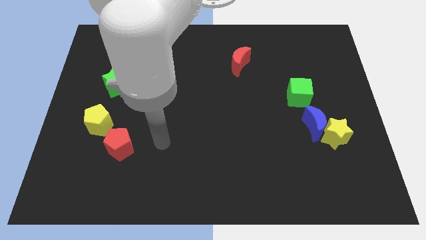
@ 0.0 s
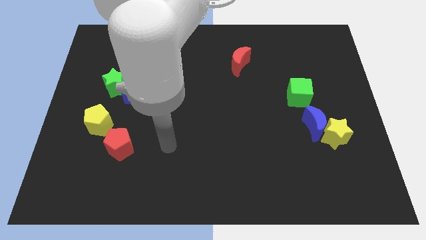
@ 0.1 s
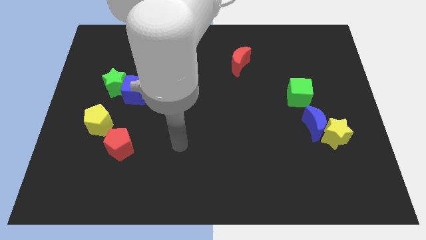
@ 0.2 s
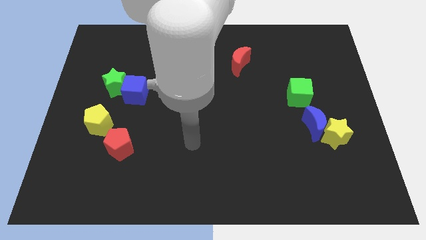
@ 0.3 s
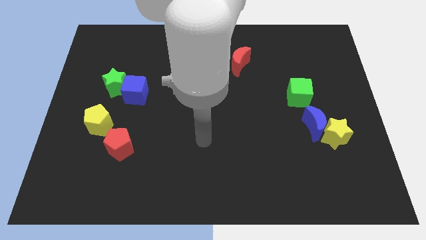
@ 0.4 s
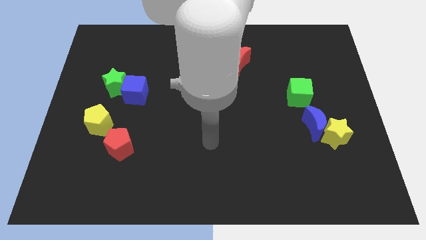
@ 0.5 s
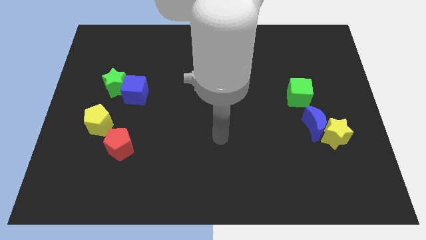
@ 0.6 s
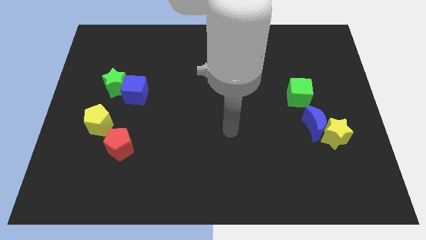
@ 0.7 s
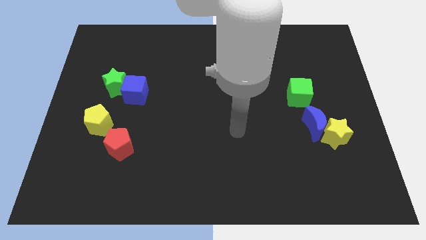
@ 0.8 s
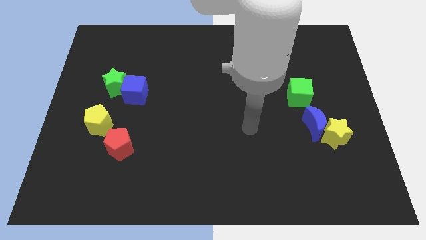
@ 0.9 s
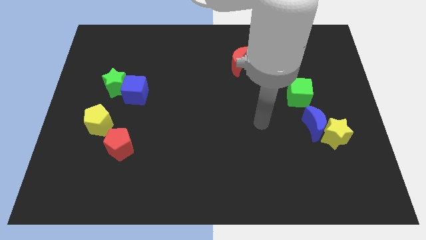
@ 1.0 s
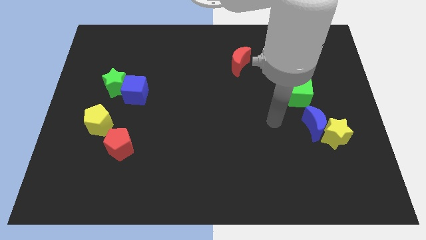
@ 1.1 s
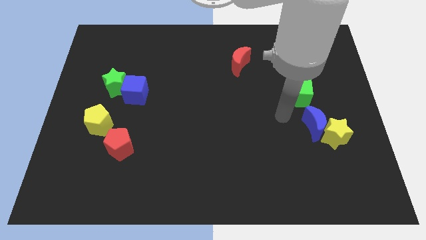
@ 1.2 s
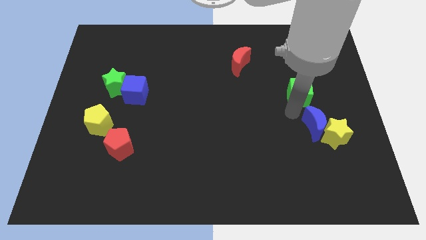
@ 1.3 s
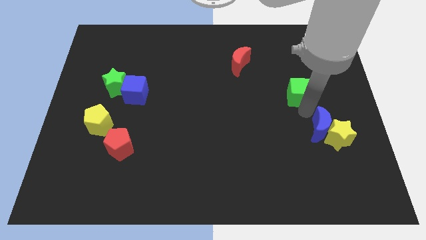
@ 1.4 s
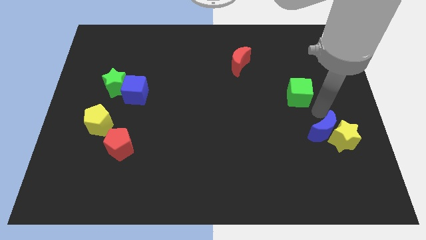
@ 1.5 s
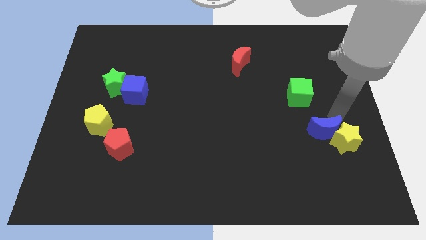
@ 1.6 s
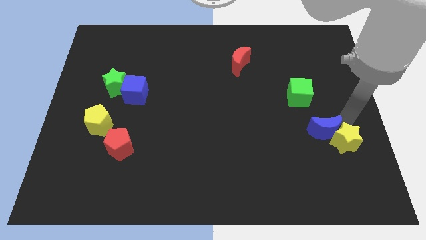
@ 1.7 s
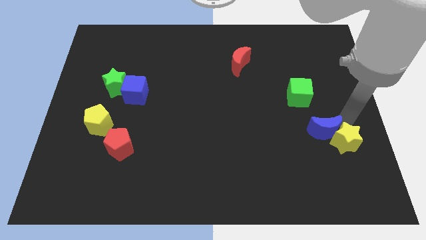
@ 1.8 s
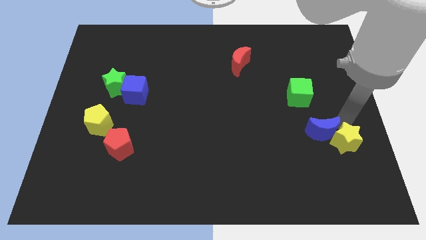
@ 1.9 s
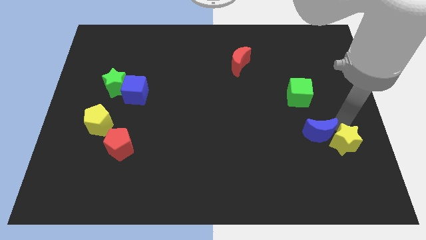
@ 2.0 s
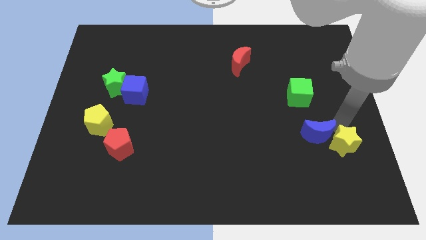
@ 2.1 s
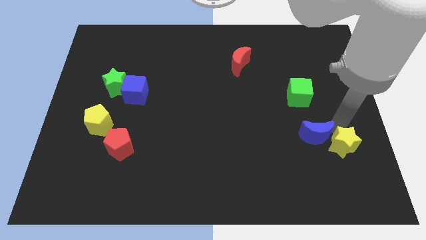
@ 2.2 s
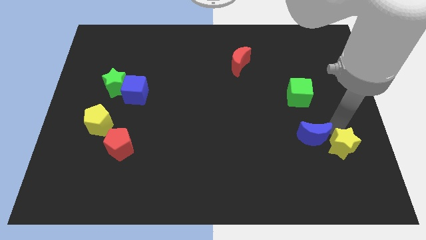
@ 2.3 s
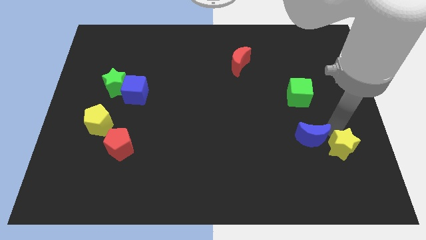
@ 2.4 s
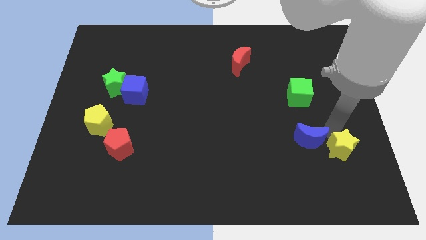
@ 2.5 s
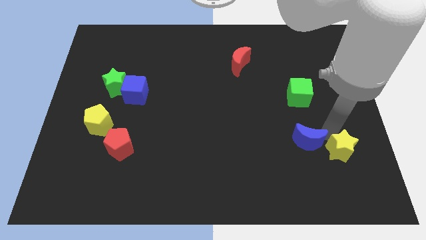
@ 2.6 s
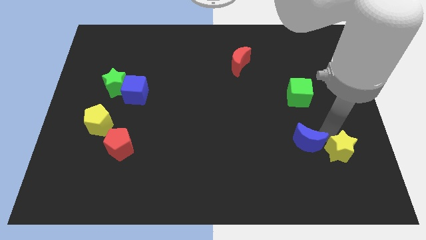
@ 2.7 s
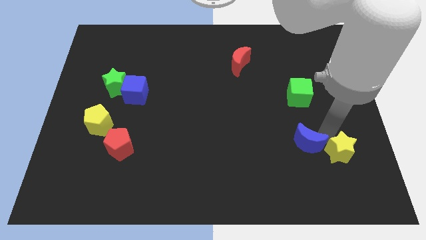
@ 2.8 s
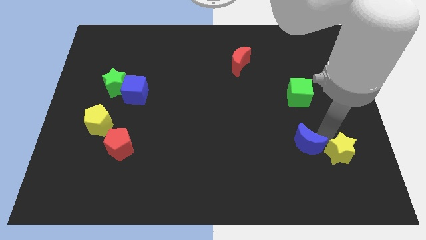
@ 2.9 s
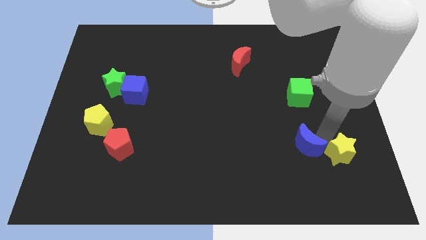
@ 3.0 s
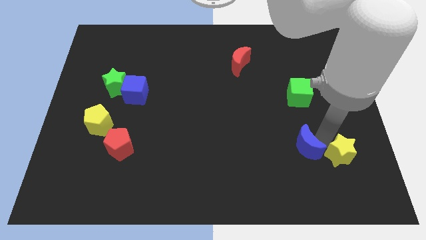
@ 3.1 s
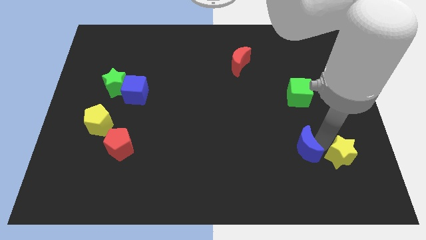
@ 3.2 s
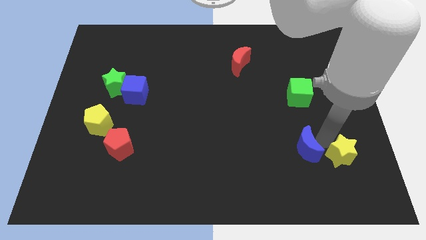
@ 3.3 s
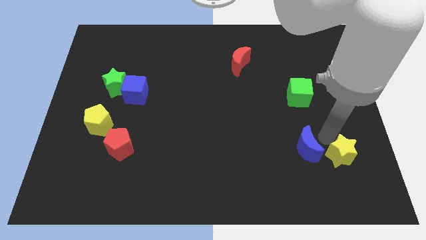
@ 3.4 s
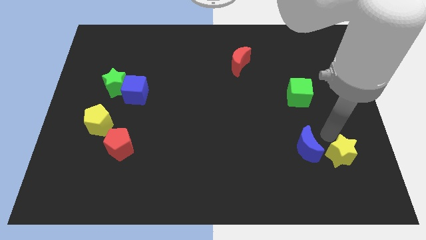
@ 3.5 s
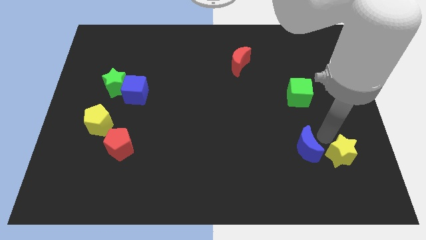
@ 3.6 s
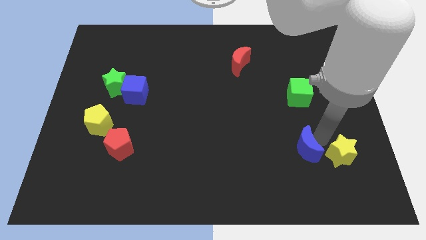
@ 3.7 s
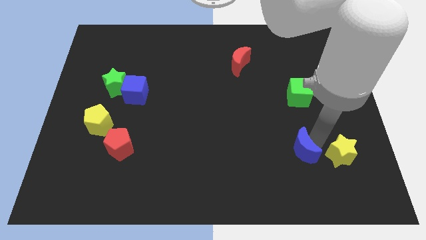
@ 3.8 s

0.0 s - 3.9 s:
slightly slide the blue moon diagonally downwards and left

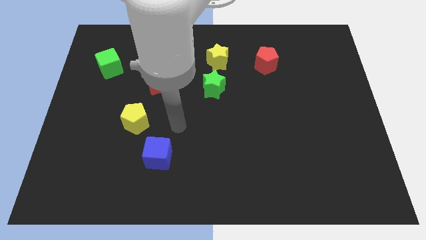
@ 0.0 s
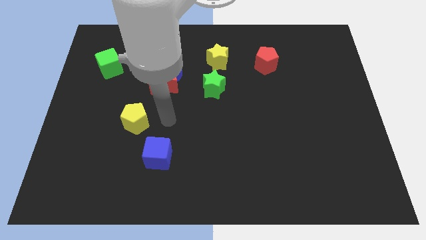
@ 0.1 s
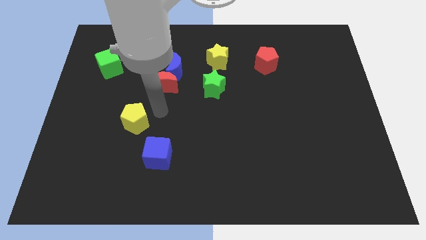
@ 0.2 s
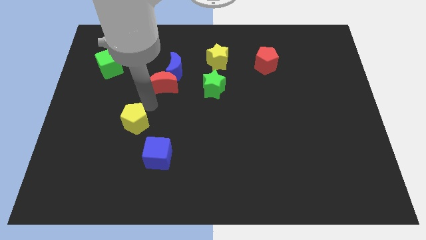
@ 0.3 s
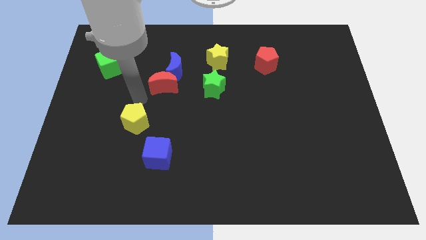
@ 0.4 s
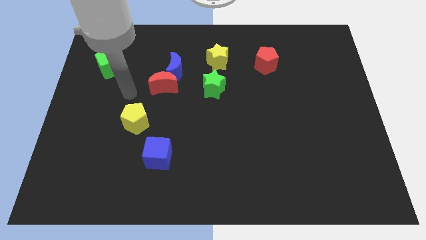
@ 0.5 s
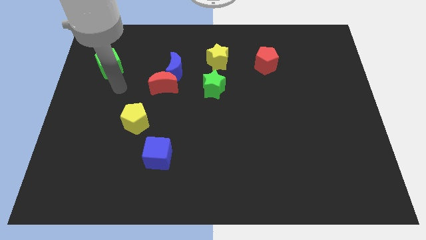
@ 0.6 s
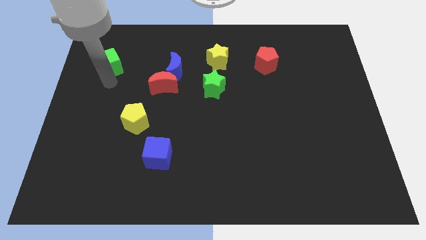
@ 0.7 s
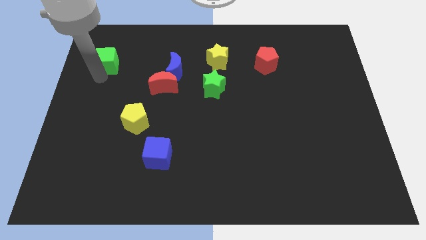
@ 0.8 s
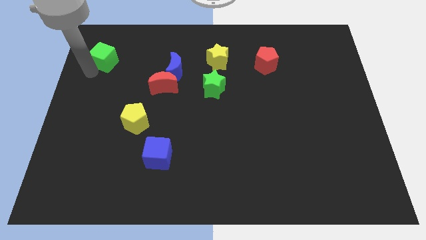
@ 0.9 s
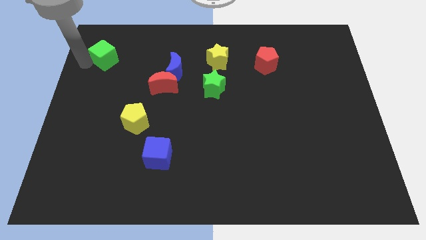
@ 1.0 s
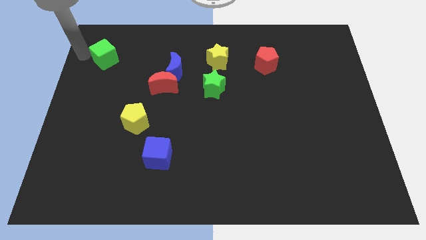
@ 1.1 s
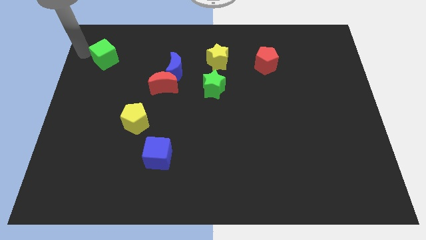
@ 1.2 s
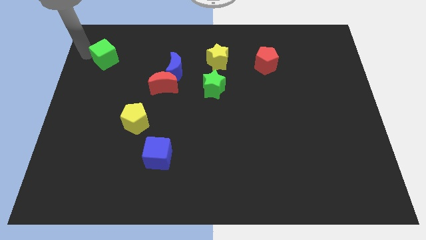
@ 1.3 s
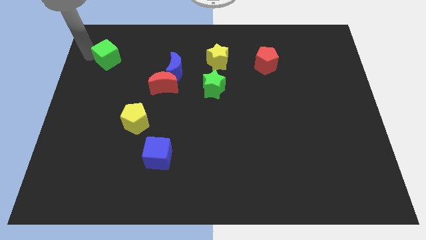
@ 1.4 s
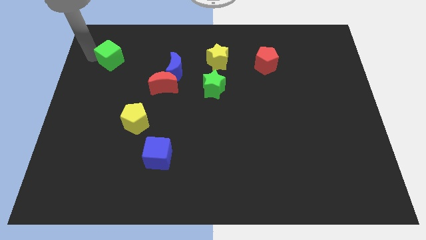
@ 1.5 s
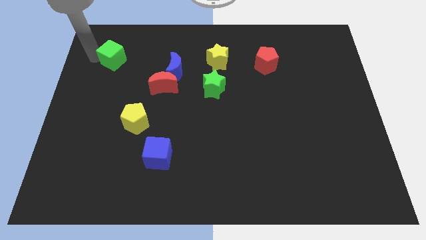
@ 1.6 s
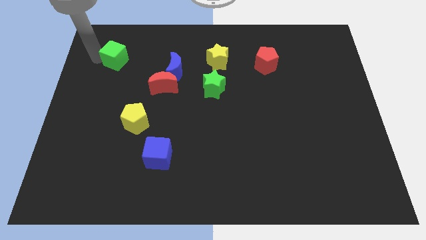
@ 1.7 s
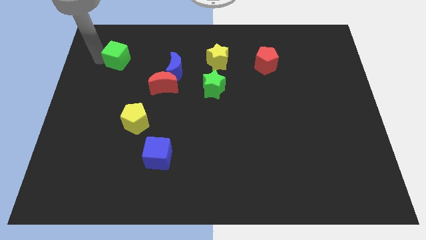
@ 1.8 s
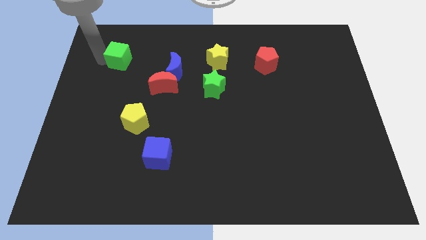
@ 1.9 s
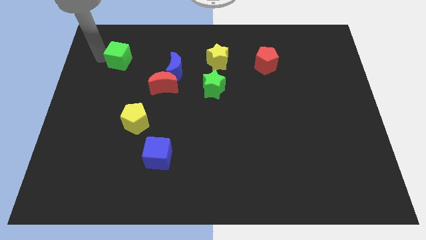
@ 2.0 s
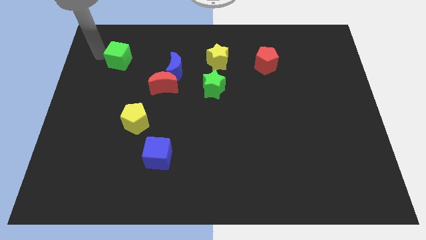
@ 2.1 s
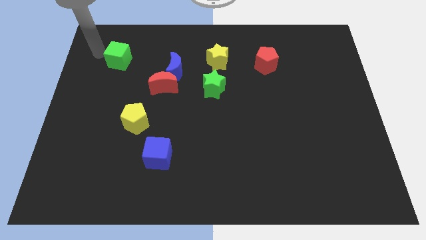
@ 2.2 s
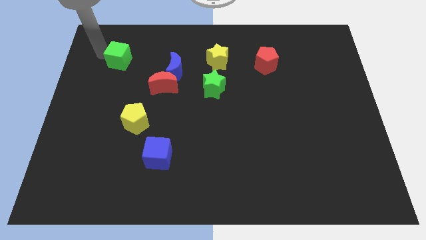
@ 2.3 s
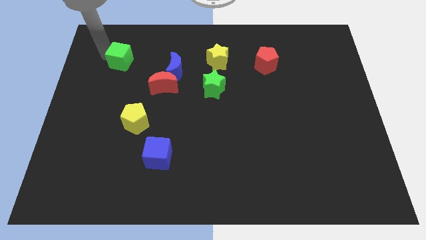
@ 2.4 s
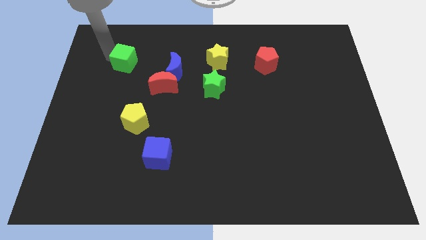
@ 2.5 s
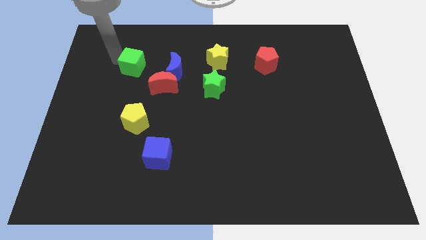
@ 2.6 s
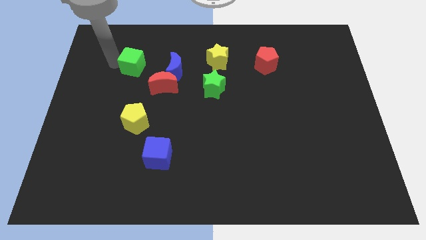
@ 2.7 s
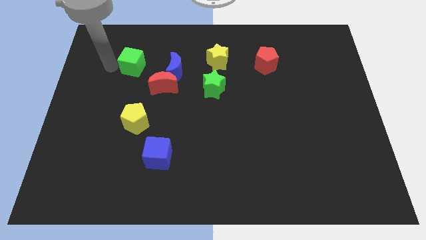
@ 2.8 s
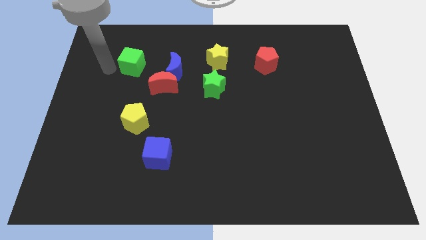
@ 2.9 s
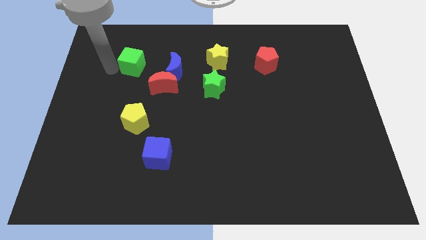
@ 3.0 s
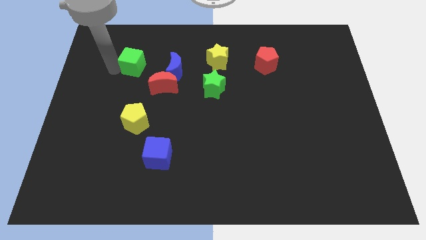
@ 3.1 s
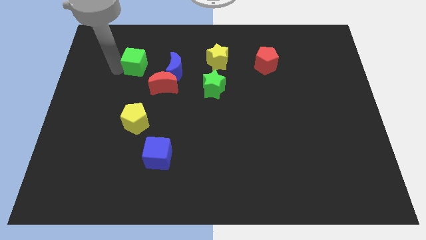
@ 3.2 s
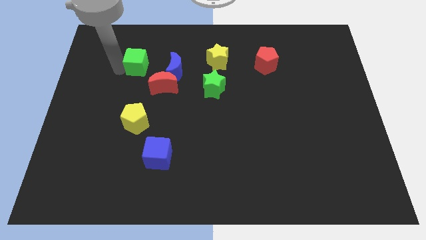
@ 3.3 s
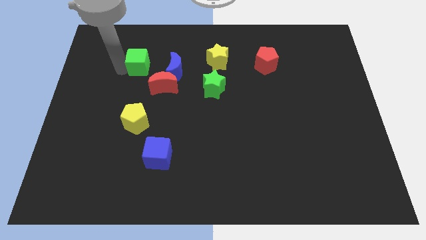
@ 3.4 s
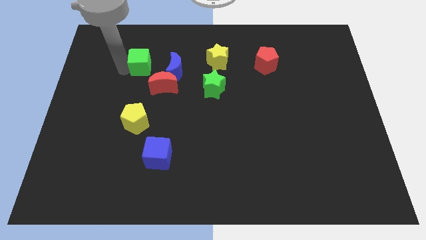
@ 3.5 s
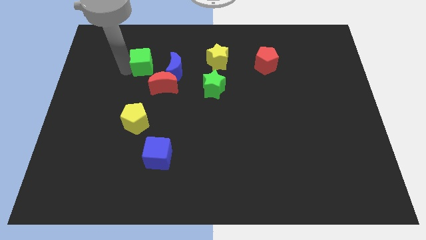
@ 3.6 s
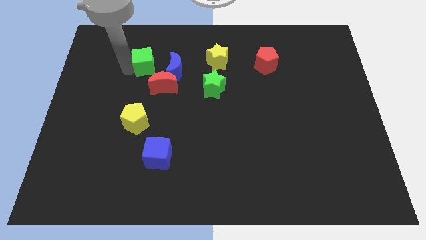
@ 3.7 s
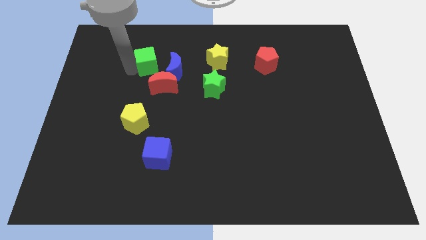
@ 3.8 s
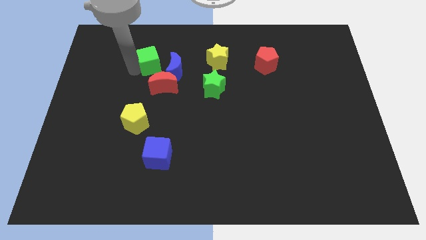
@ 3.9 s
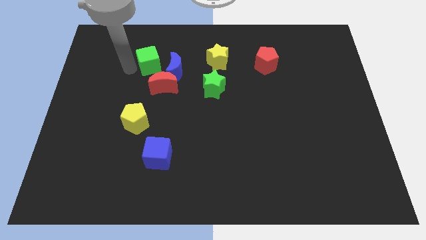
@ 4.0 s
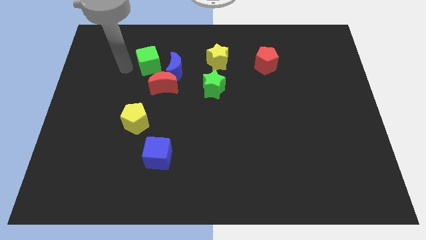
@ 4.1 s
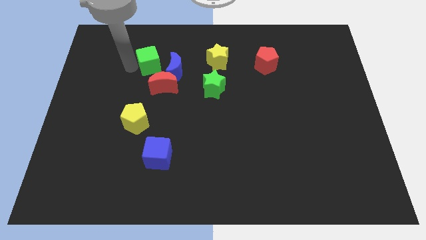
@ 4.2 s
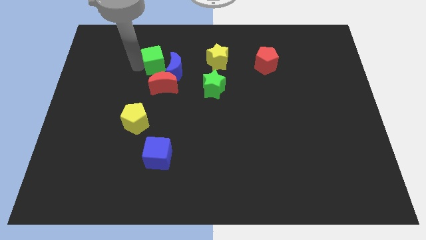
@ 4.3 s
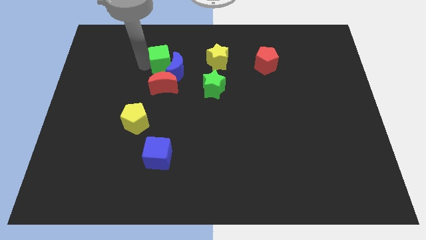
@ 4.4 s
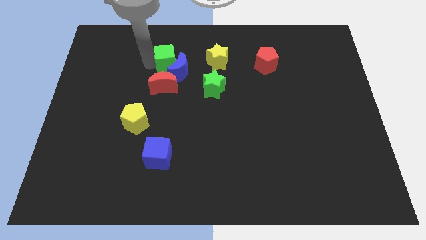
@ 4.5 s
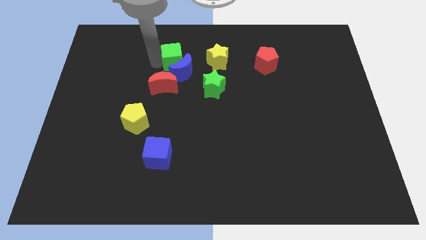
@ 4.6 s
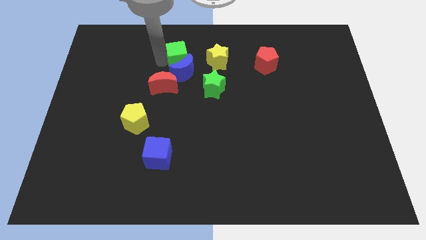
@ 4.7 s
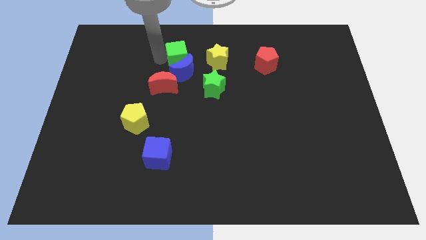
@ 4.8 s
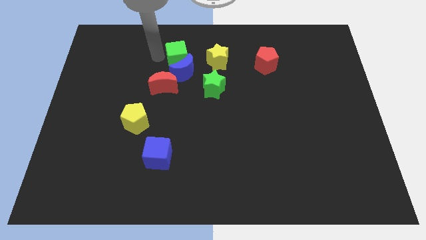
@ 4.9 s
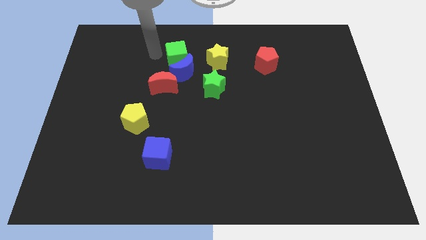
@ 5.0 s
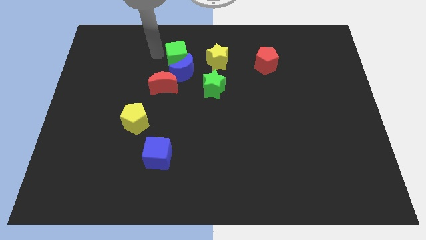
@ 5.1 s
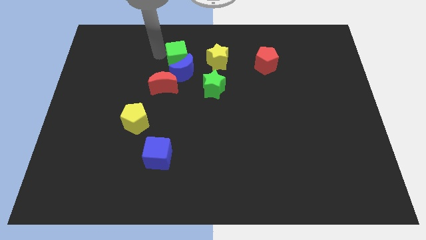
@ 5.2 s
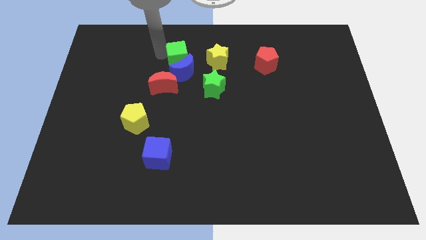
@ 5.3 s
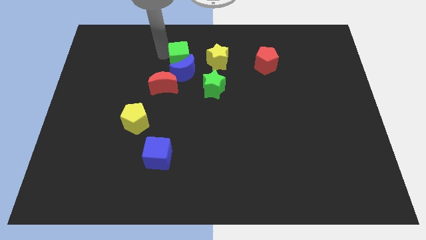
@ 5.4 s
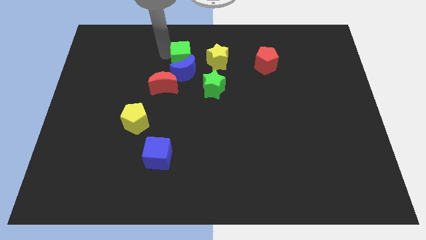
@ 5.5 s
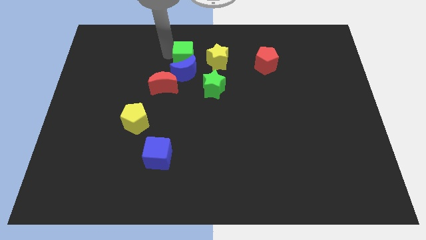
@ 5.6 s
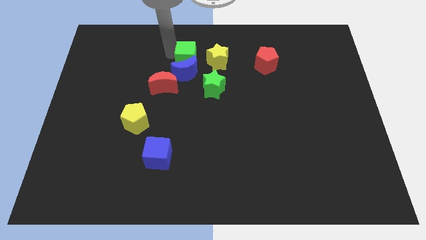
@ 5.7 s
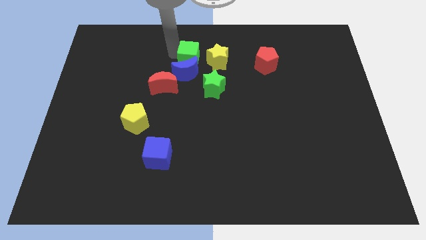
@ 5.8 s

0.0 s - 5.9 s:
move the green cube right
